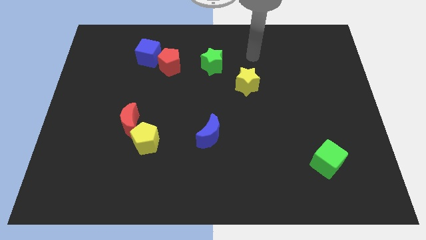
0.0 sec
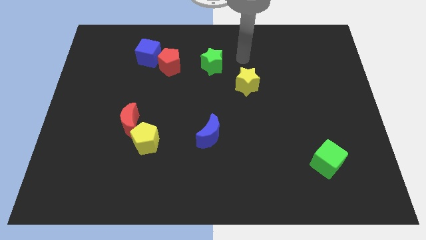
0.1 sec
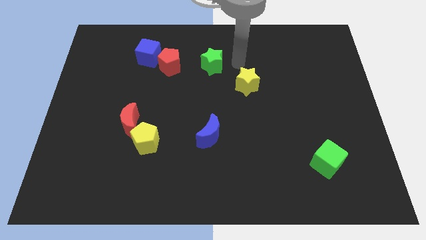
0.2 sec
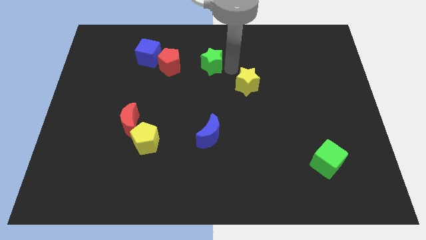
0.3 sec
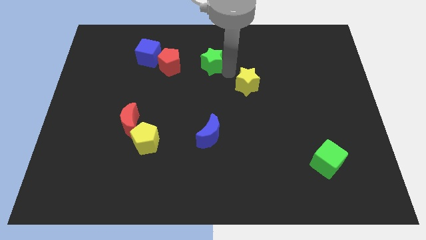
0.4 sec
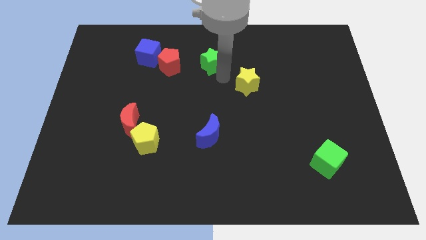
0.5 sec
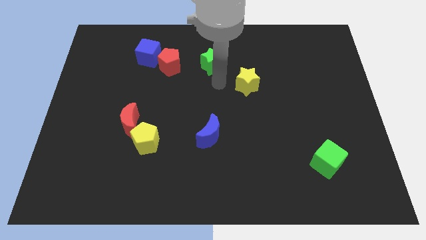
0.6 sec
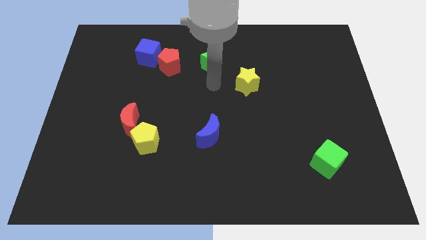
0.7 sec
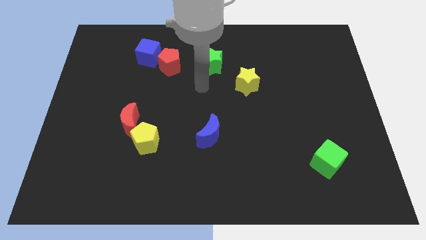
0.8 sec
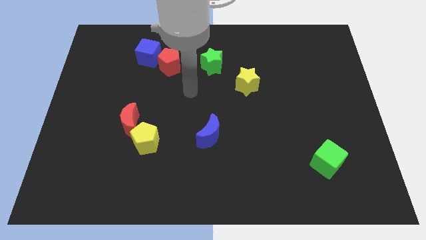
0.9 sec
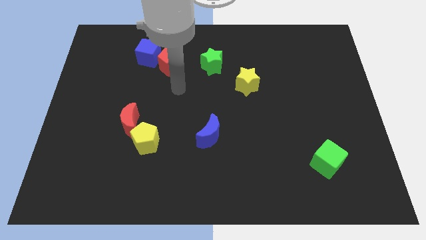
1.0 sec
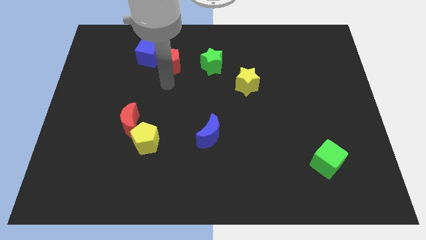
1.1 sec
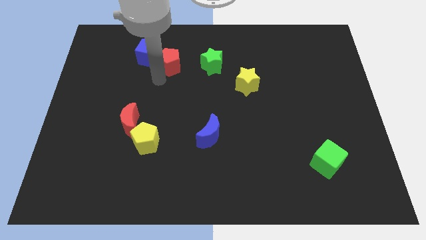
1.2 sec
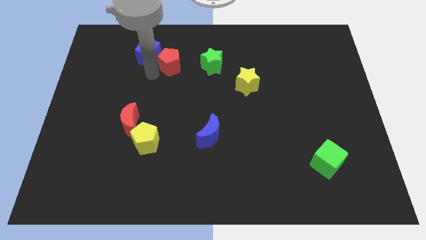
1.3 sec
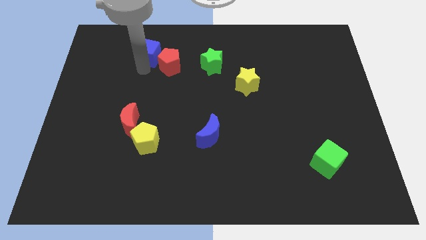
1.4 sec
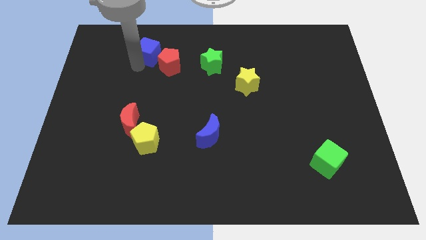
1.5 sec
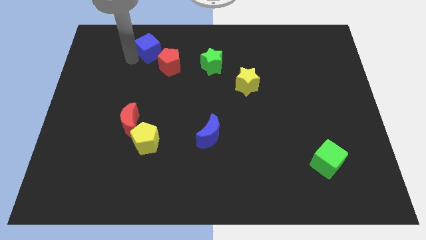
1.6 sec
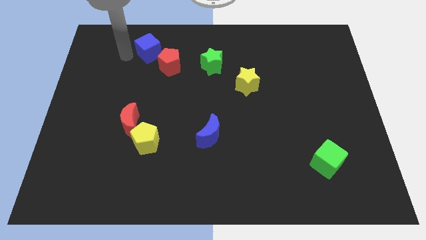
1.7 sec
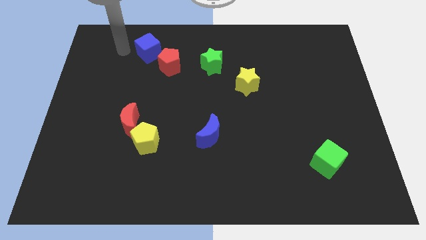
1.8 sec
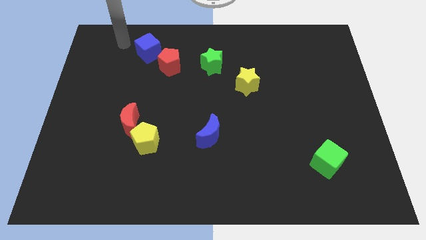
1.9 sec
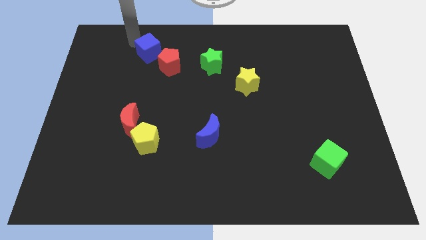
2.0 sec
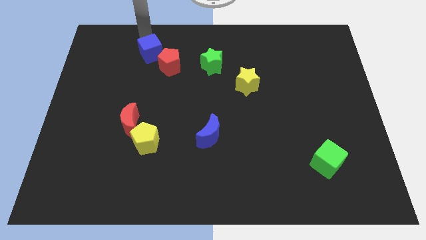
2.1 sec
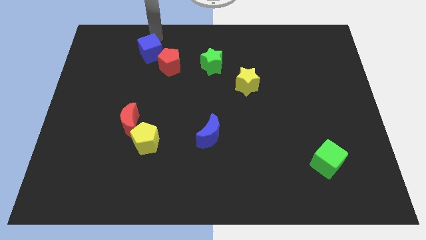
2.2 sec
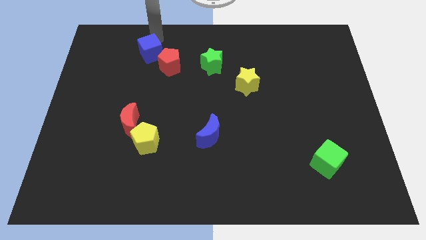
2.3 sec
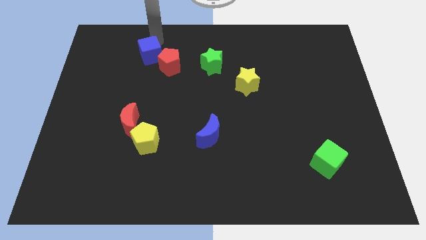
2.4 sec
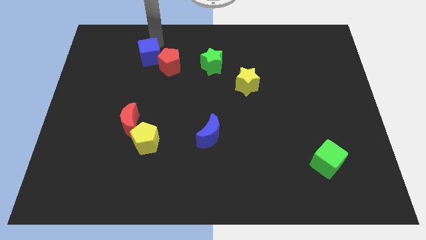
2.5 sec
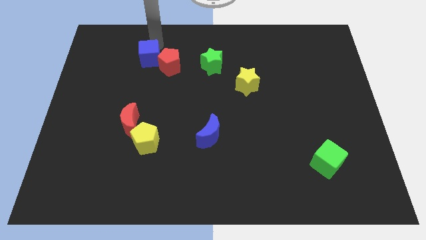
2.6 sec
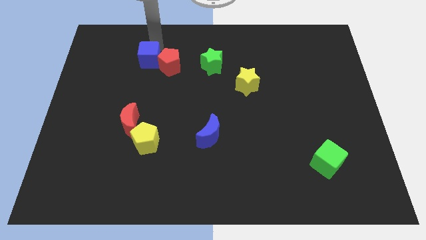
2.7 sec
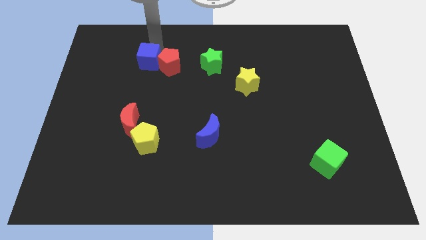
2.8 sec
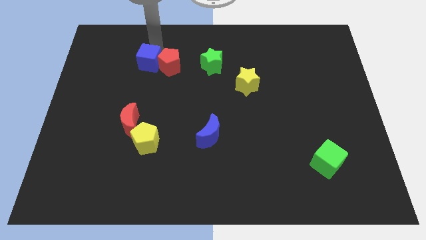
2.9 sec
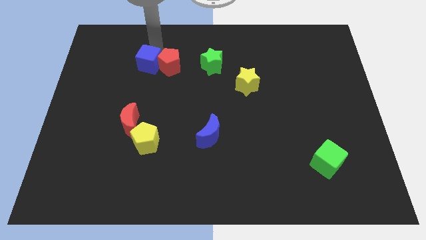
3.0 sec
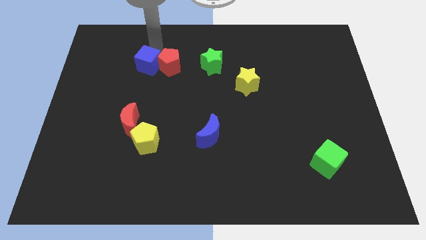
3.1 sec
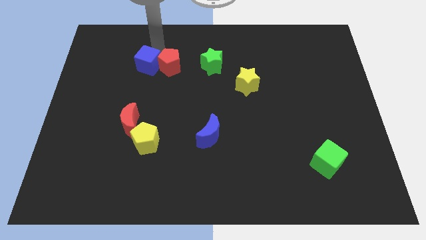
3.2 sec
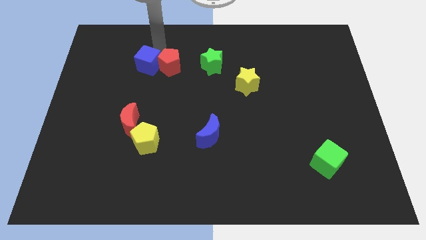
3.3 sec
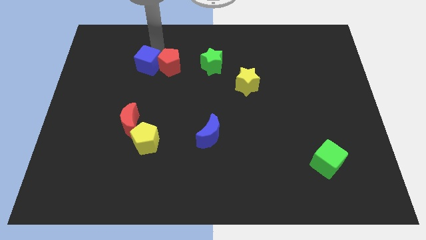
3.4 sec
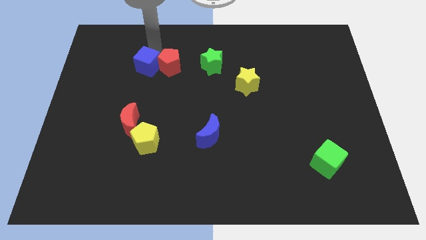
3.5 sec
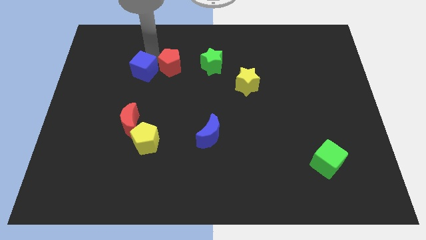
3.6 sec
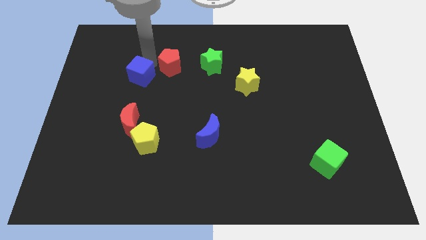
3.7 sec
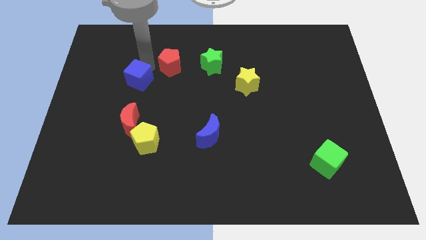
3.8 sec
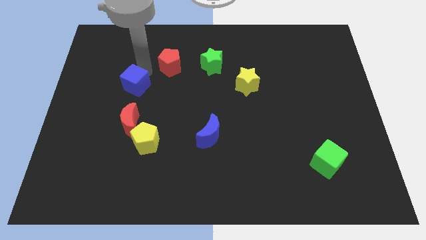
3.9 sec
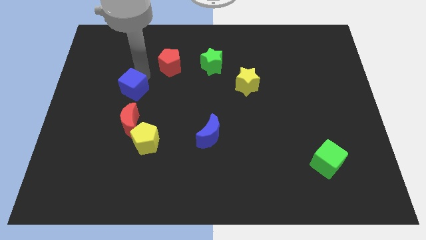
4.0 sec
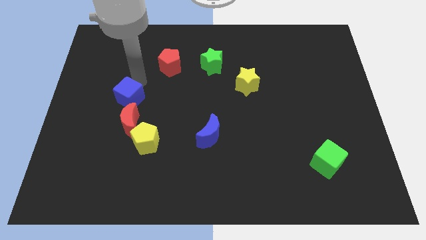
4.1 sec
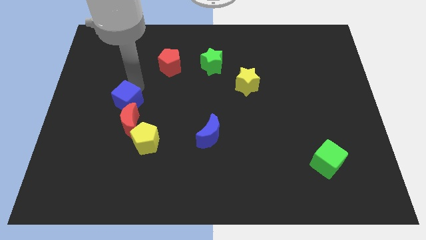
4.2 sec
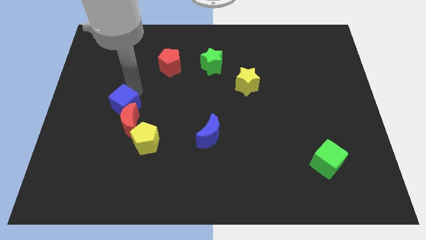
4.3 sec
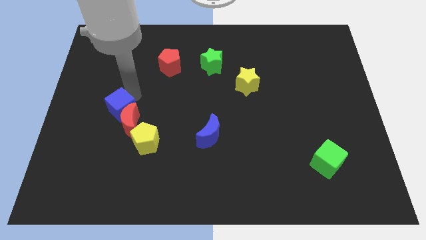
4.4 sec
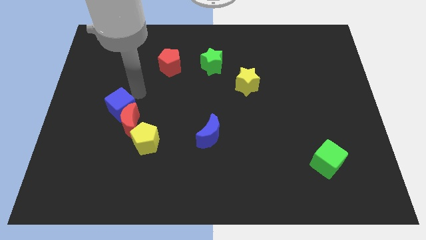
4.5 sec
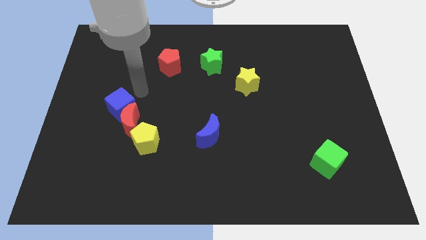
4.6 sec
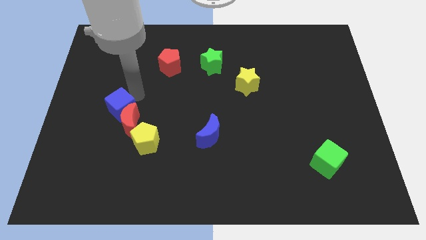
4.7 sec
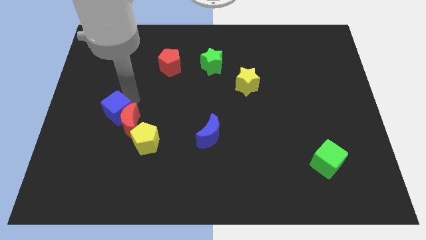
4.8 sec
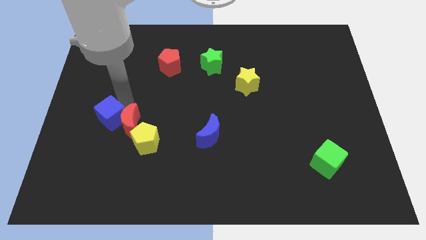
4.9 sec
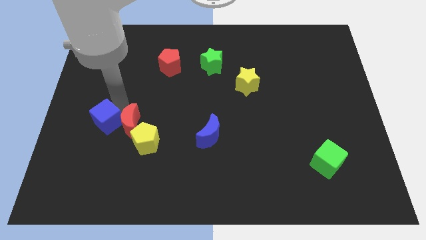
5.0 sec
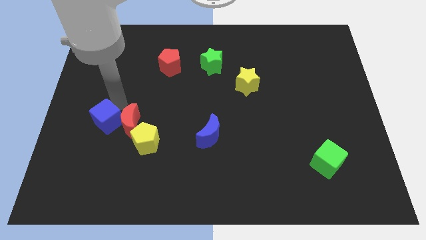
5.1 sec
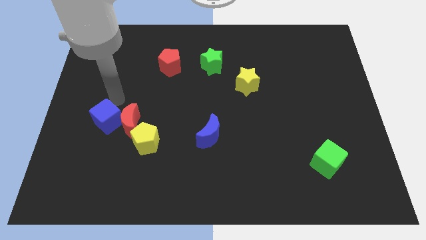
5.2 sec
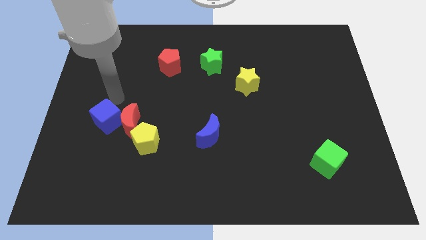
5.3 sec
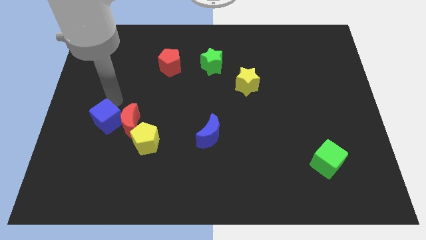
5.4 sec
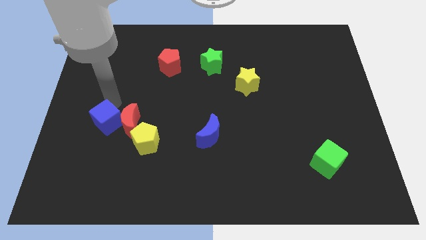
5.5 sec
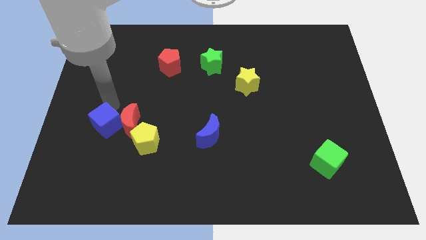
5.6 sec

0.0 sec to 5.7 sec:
slide the blue cube left of the yellow pentagon

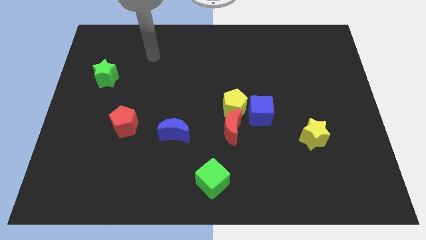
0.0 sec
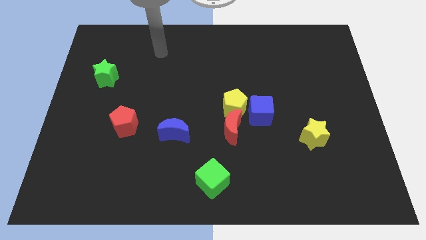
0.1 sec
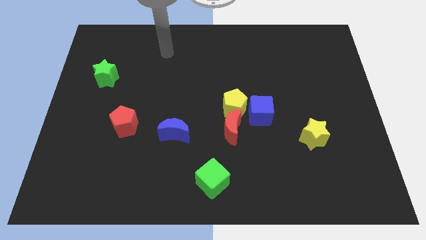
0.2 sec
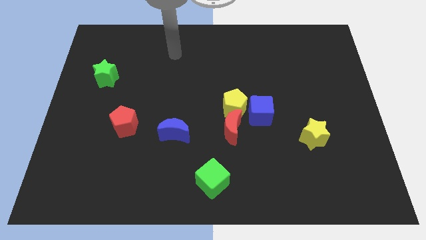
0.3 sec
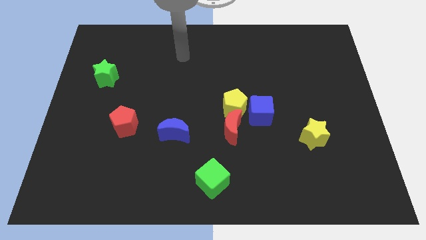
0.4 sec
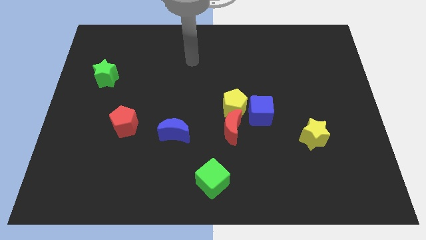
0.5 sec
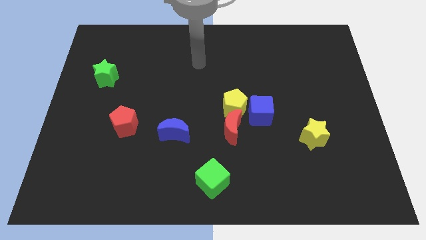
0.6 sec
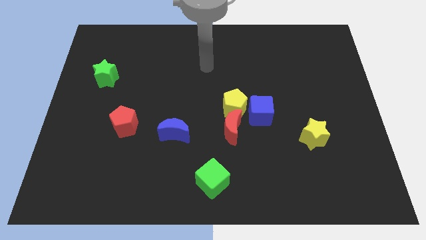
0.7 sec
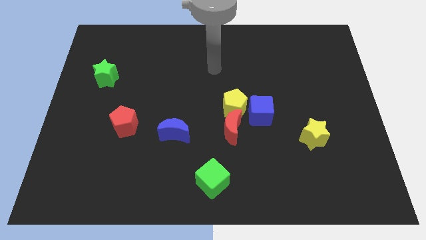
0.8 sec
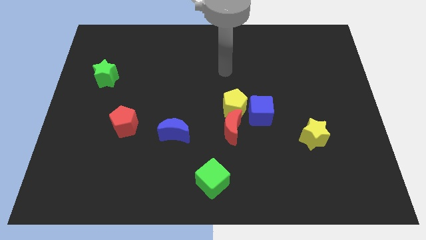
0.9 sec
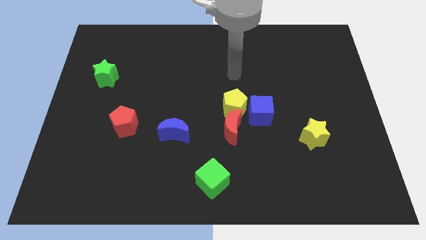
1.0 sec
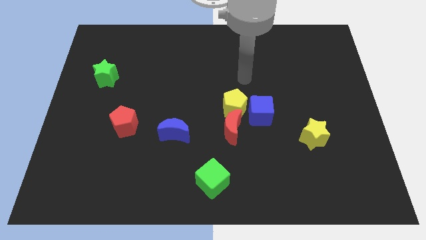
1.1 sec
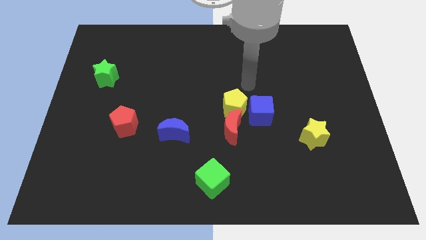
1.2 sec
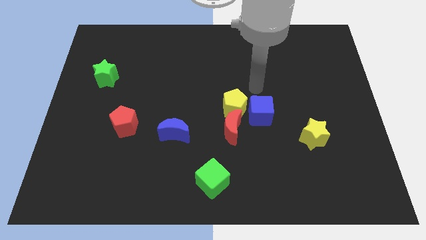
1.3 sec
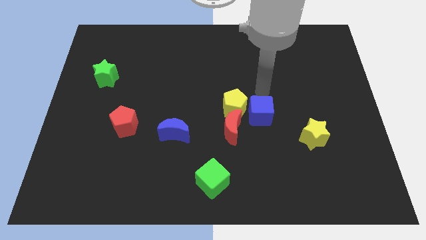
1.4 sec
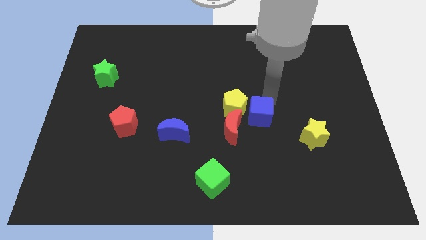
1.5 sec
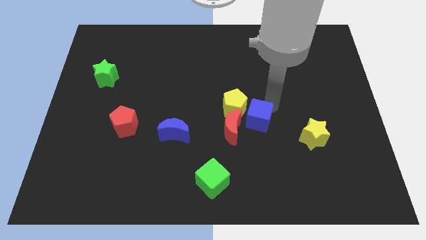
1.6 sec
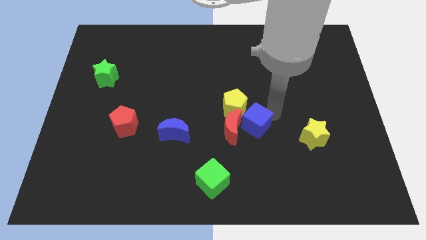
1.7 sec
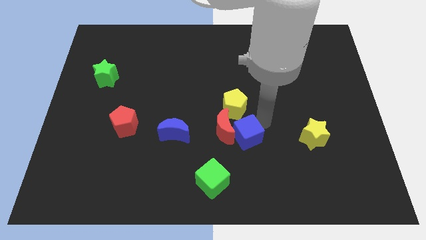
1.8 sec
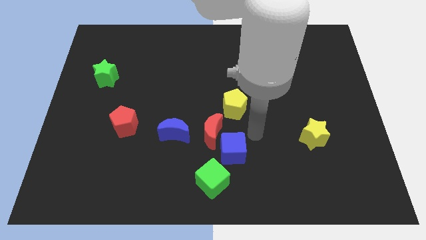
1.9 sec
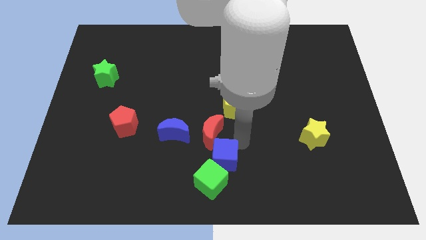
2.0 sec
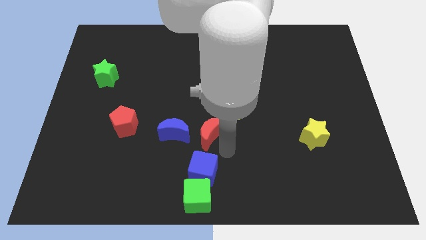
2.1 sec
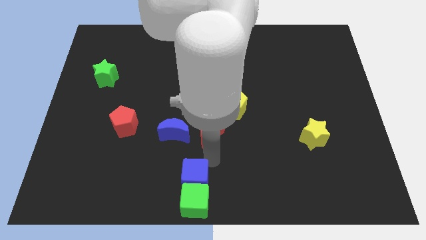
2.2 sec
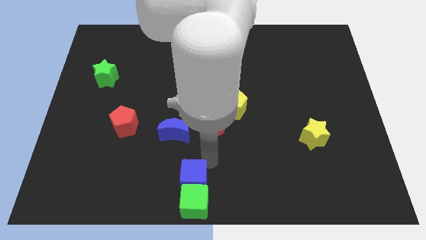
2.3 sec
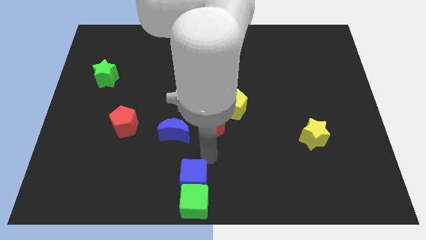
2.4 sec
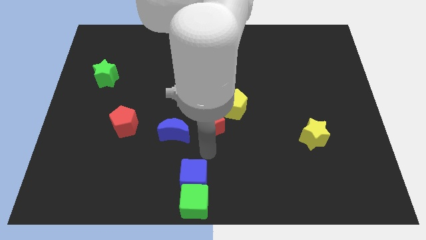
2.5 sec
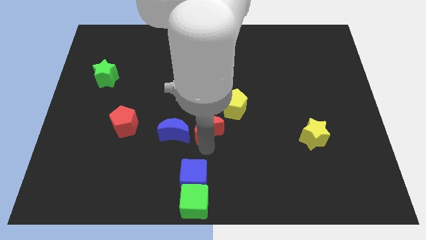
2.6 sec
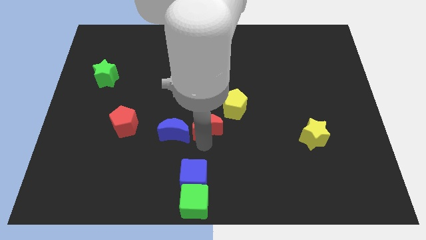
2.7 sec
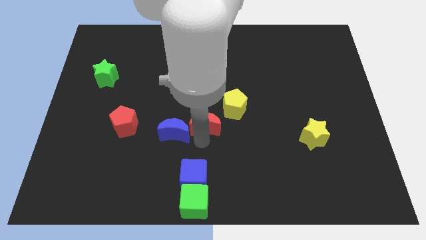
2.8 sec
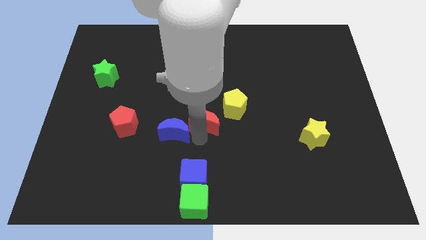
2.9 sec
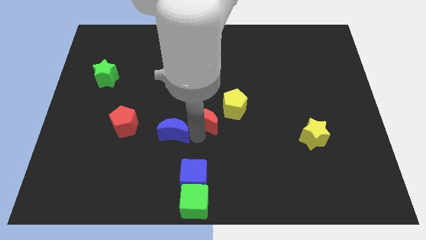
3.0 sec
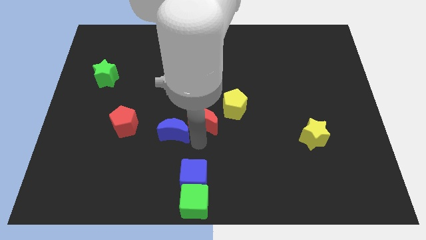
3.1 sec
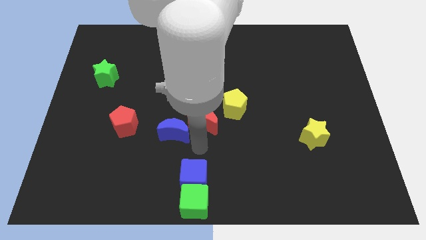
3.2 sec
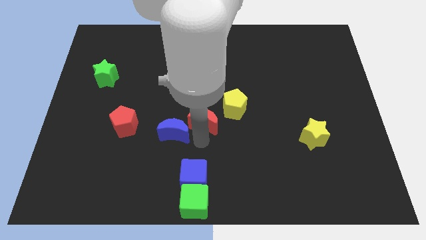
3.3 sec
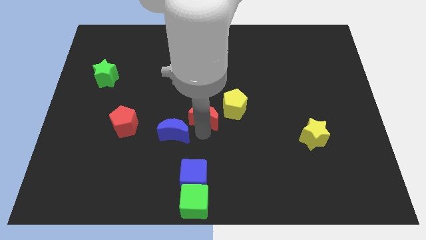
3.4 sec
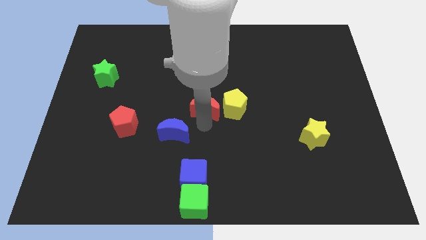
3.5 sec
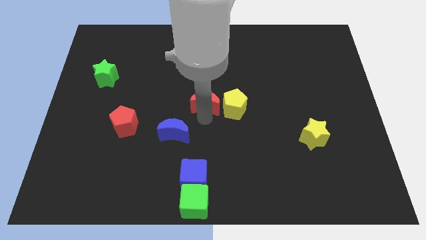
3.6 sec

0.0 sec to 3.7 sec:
slide the red moon to the top left side of the yellow pentagon
